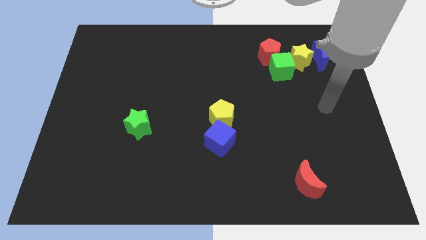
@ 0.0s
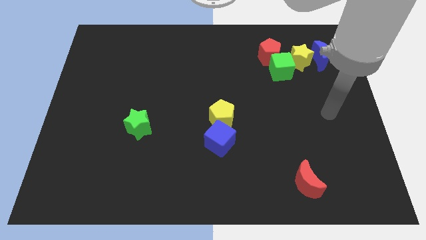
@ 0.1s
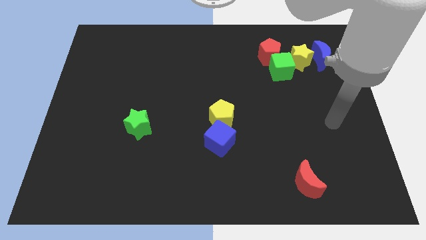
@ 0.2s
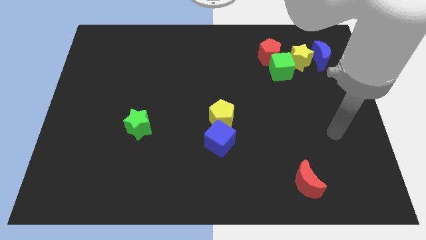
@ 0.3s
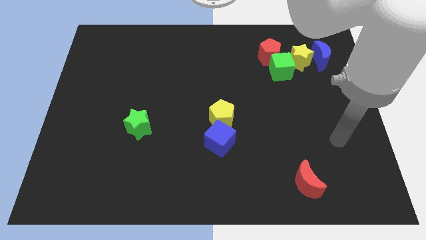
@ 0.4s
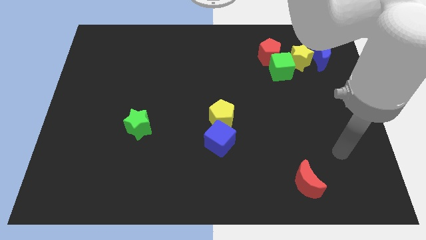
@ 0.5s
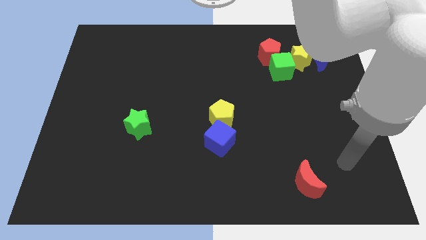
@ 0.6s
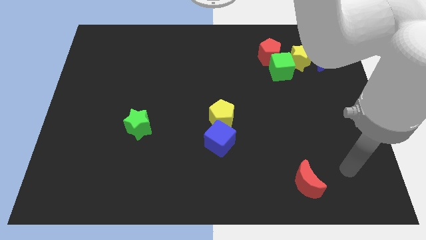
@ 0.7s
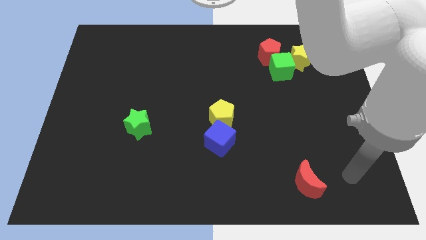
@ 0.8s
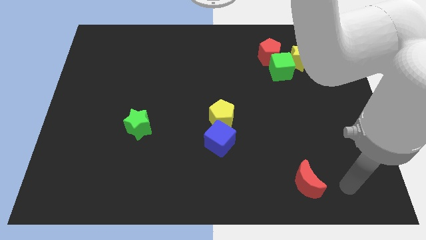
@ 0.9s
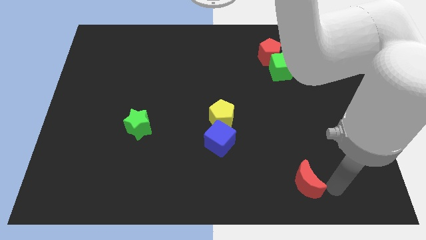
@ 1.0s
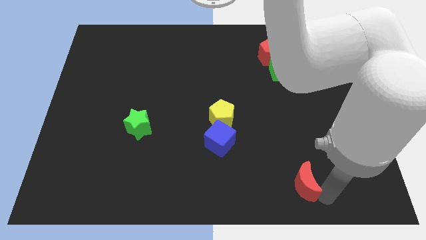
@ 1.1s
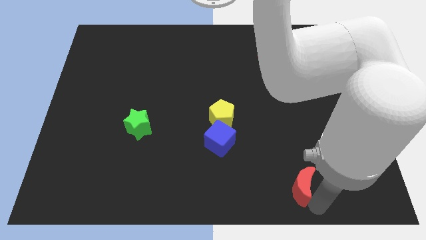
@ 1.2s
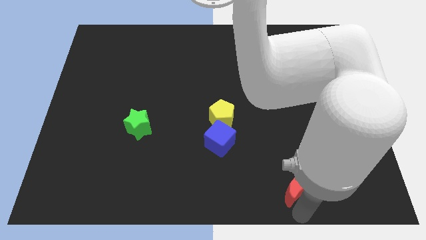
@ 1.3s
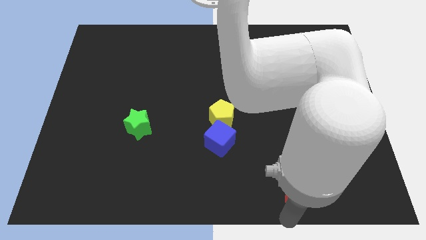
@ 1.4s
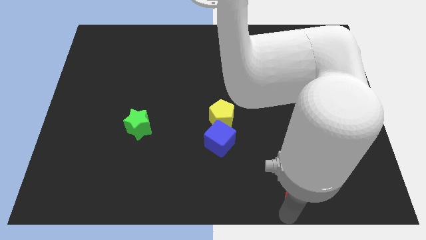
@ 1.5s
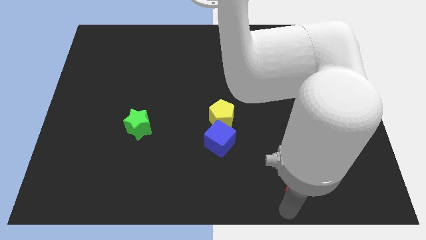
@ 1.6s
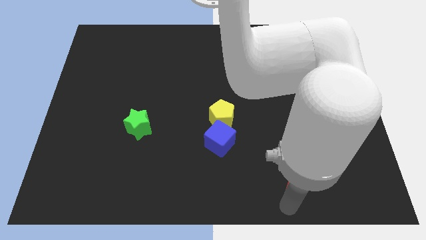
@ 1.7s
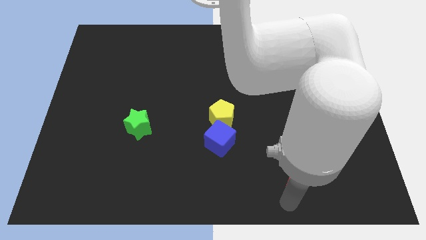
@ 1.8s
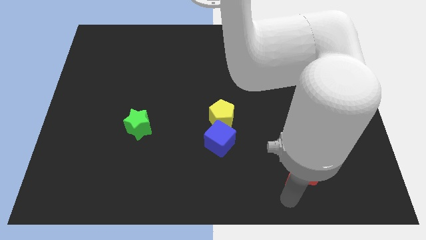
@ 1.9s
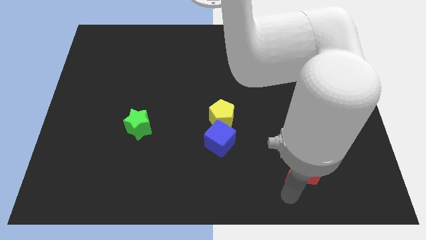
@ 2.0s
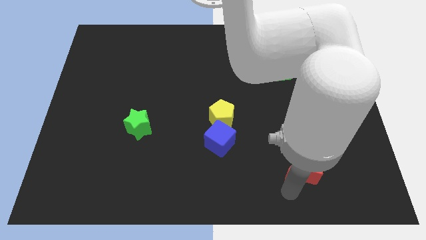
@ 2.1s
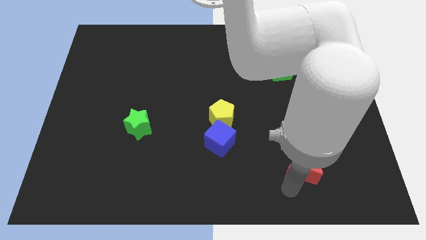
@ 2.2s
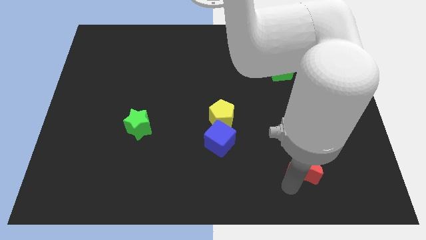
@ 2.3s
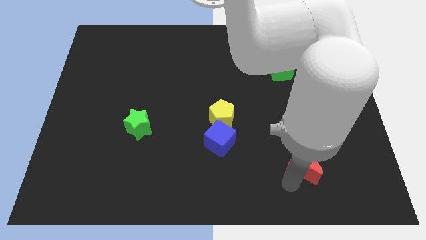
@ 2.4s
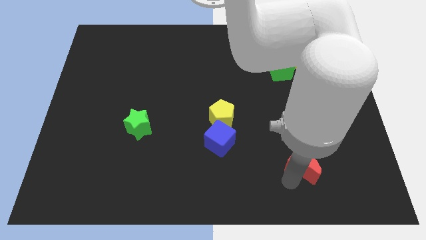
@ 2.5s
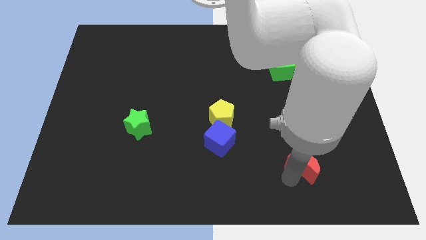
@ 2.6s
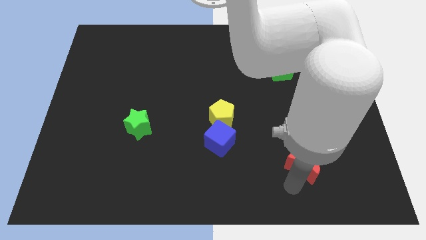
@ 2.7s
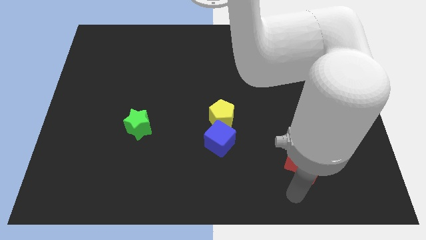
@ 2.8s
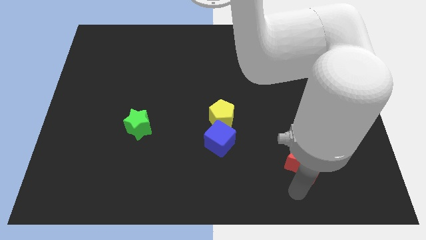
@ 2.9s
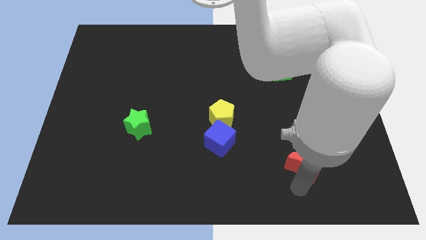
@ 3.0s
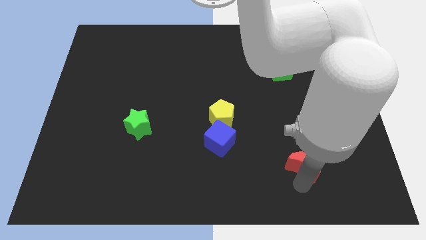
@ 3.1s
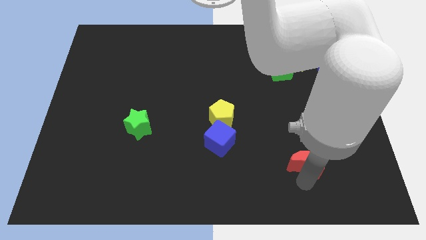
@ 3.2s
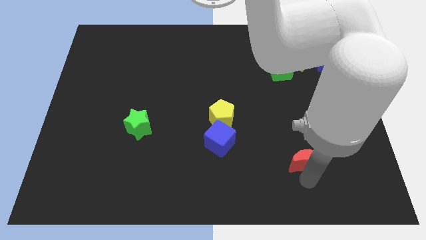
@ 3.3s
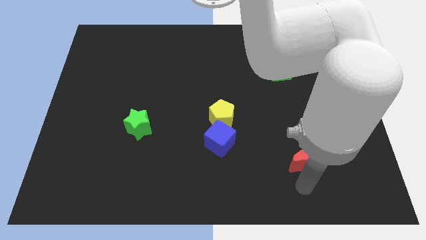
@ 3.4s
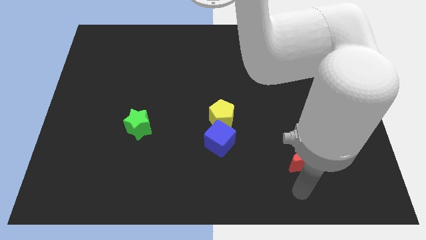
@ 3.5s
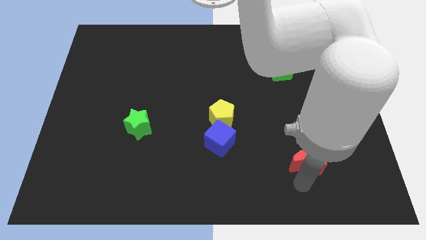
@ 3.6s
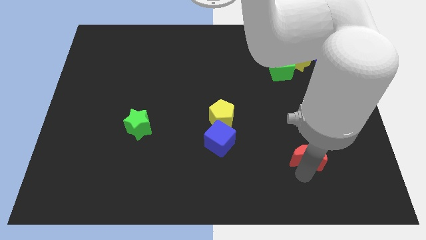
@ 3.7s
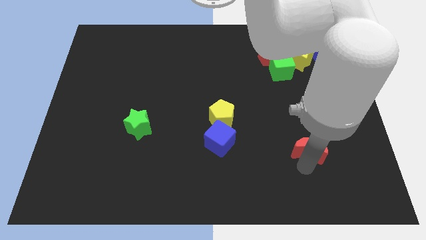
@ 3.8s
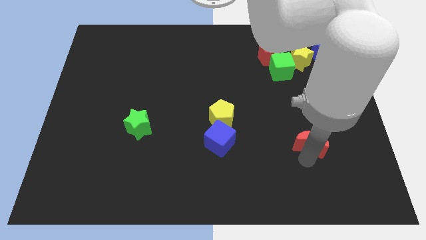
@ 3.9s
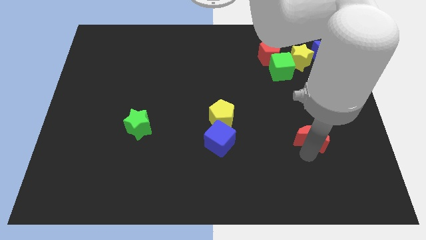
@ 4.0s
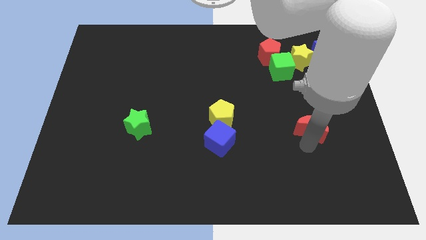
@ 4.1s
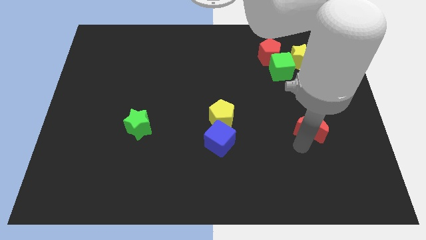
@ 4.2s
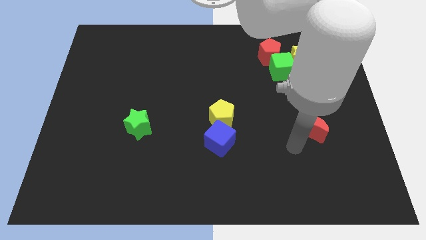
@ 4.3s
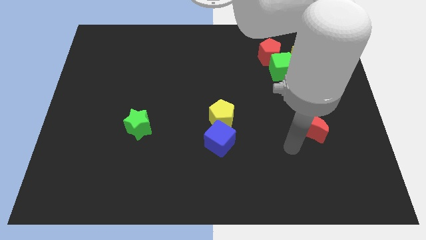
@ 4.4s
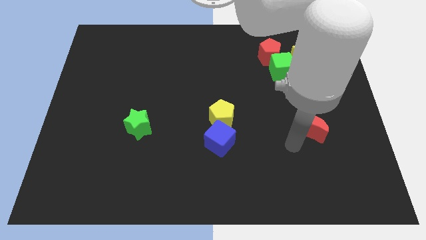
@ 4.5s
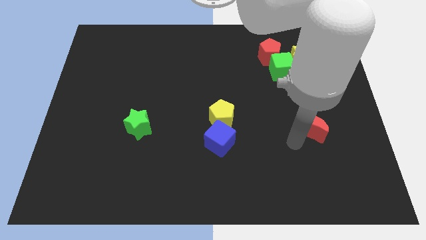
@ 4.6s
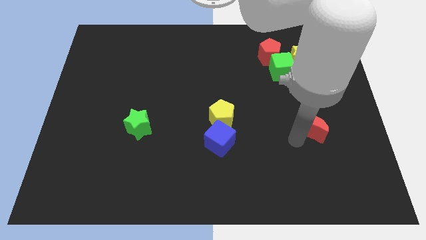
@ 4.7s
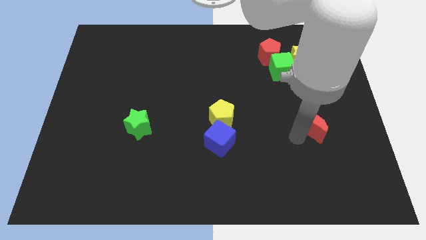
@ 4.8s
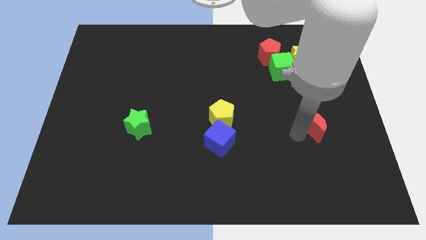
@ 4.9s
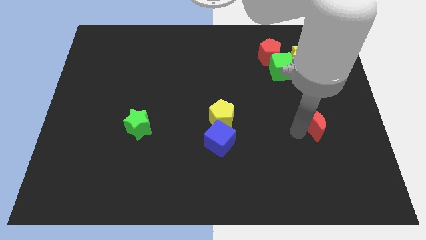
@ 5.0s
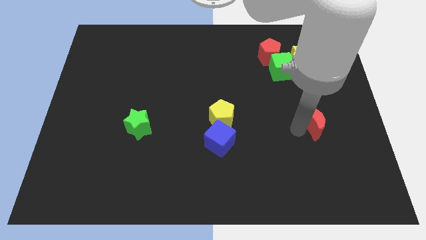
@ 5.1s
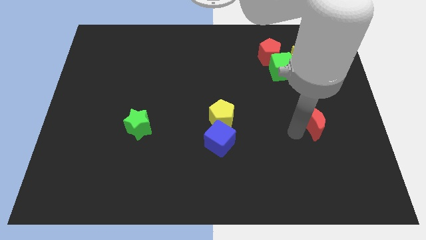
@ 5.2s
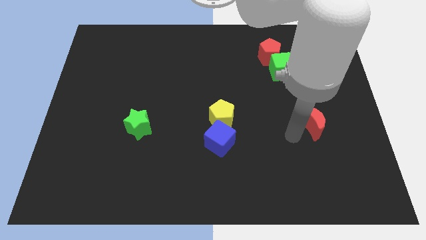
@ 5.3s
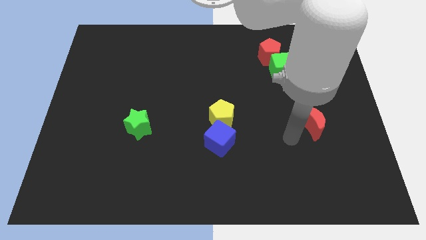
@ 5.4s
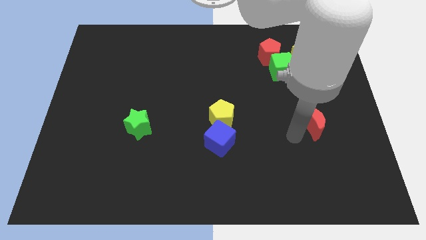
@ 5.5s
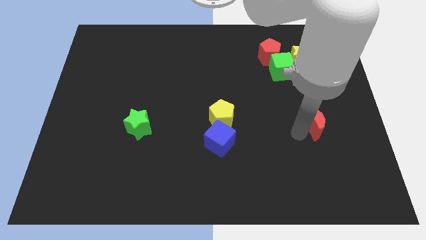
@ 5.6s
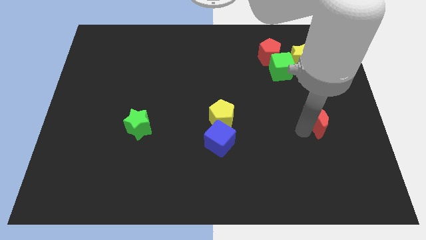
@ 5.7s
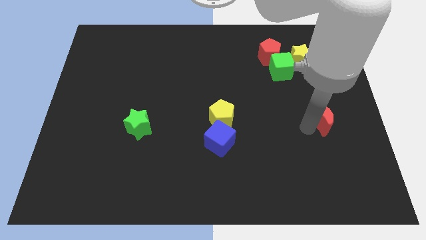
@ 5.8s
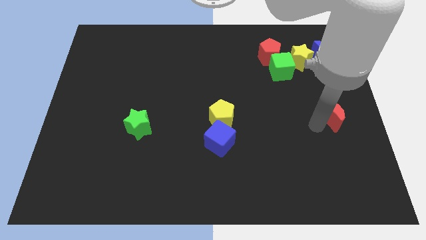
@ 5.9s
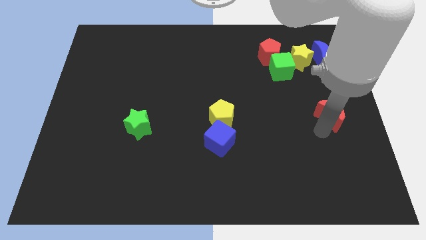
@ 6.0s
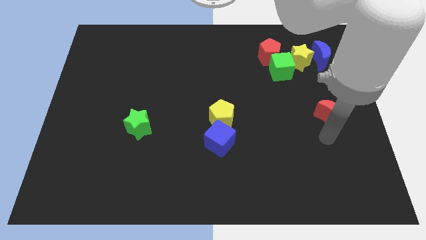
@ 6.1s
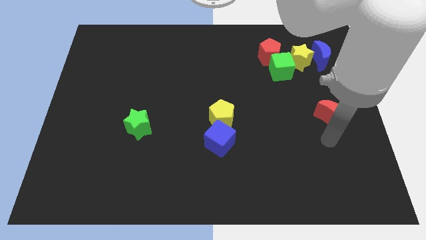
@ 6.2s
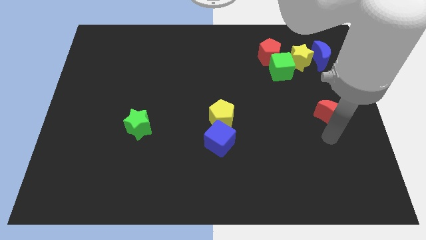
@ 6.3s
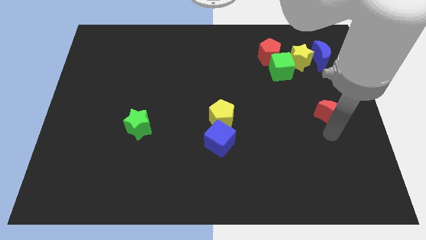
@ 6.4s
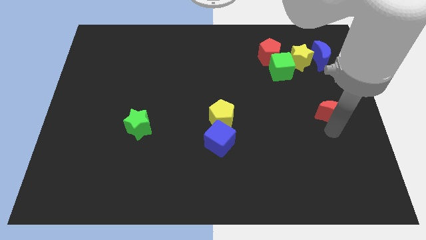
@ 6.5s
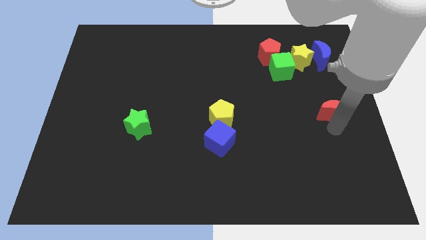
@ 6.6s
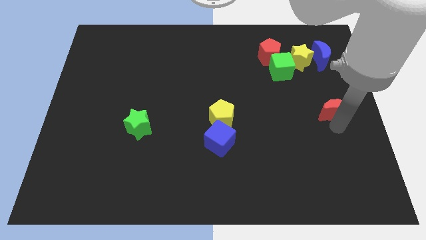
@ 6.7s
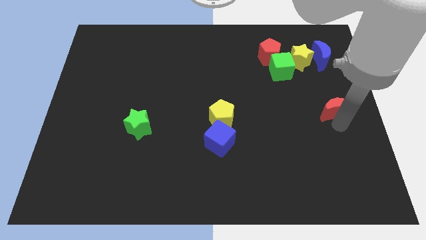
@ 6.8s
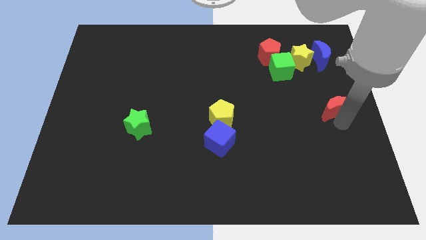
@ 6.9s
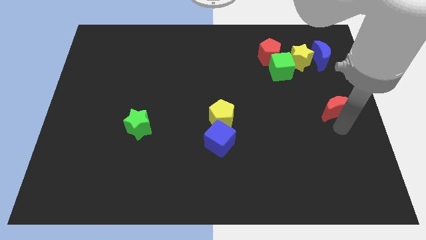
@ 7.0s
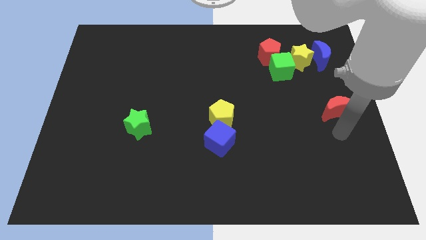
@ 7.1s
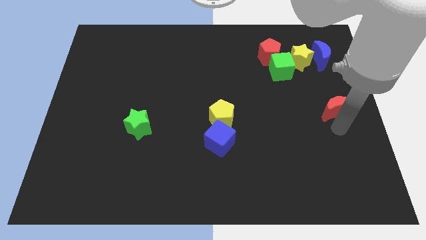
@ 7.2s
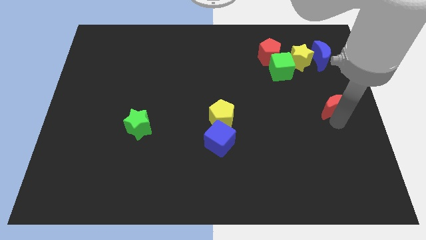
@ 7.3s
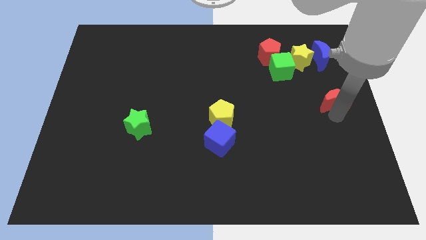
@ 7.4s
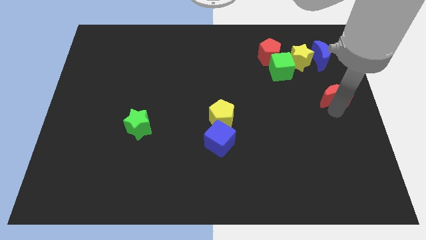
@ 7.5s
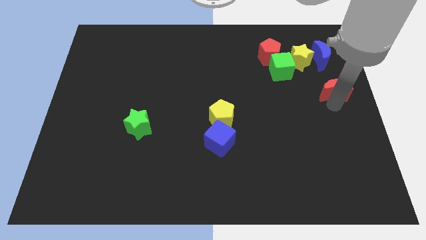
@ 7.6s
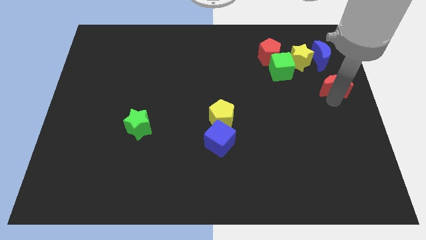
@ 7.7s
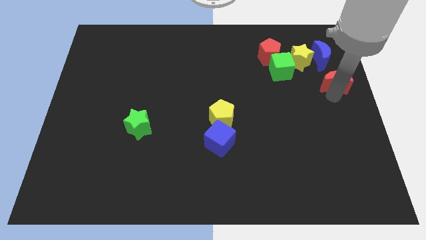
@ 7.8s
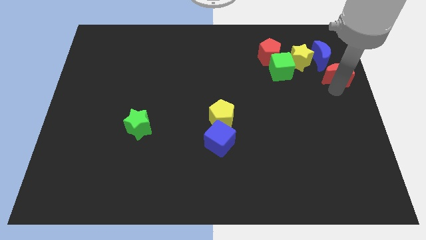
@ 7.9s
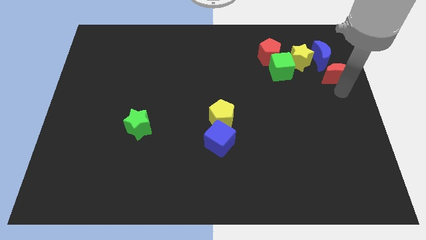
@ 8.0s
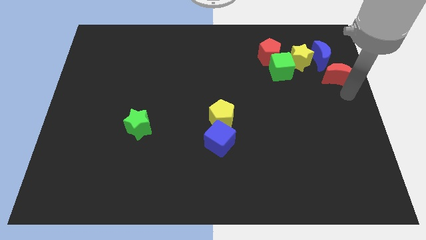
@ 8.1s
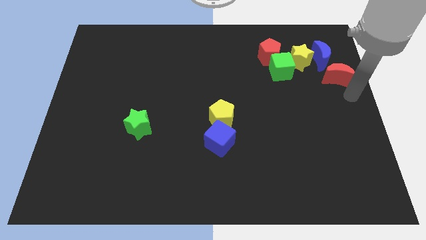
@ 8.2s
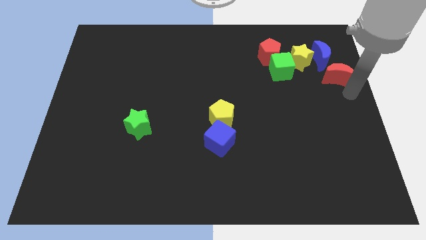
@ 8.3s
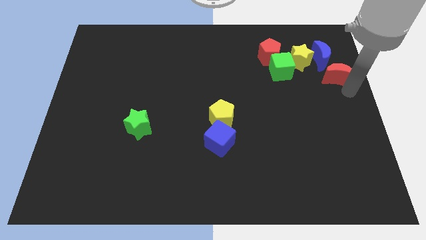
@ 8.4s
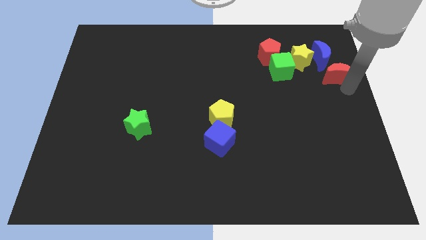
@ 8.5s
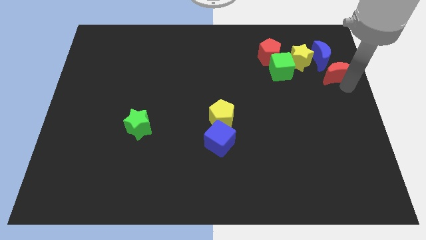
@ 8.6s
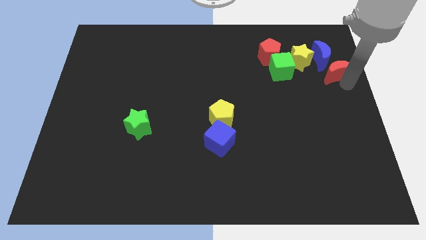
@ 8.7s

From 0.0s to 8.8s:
push the red moon towards the blue moon
